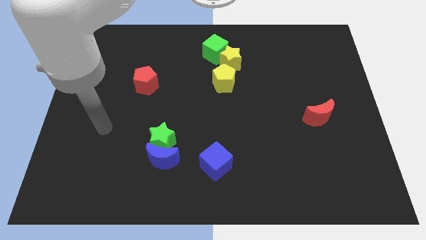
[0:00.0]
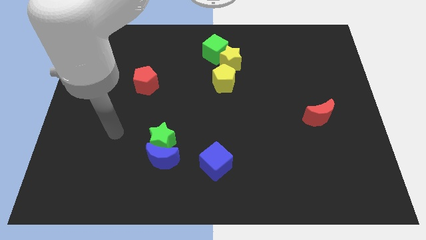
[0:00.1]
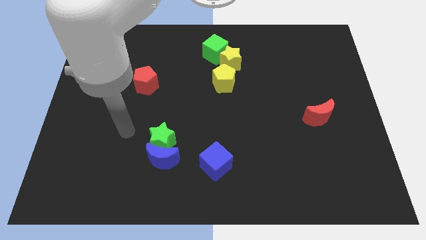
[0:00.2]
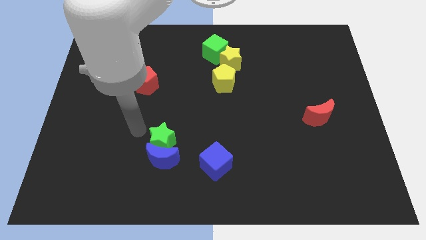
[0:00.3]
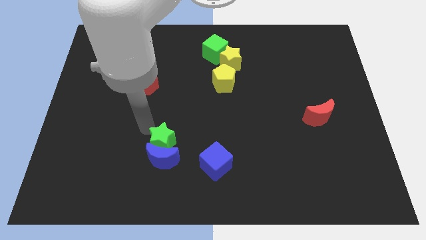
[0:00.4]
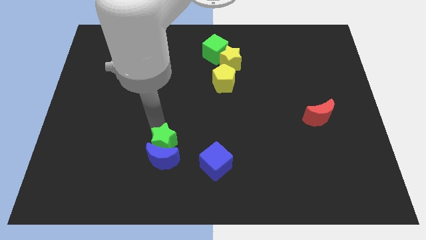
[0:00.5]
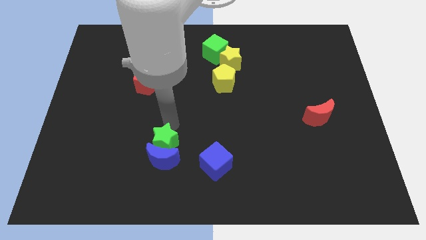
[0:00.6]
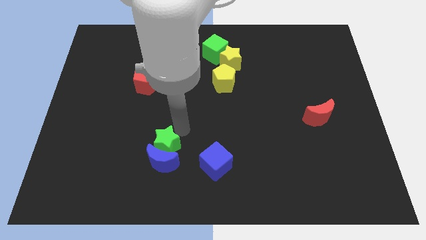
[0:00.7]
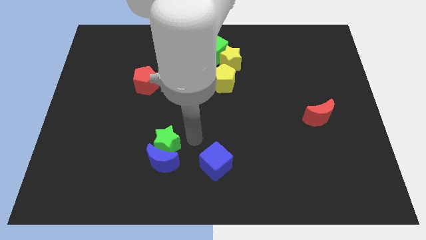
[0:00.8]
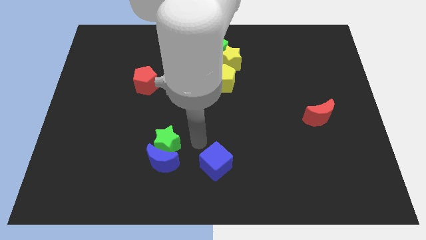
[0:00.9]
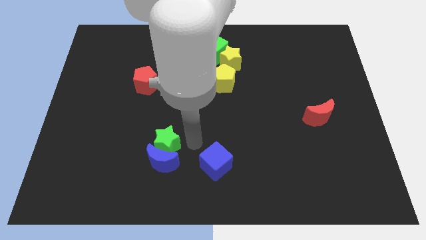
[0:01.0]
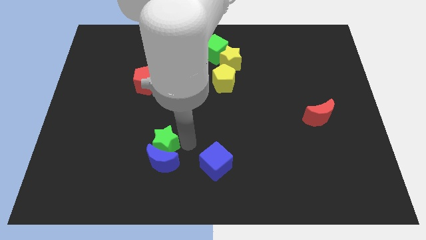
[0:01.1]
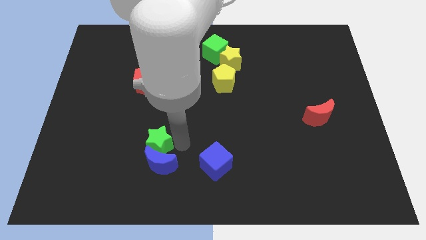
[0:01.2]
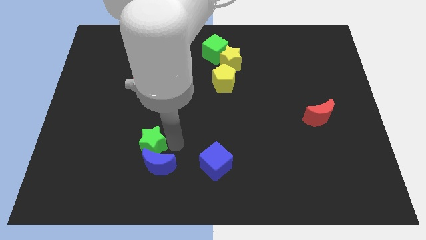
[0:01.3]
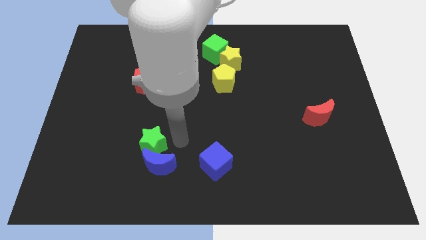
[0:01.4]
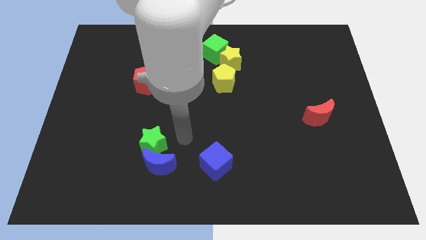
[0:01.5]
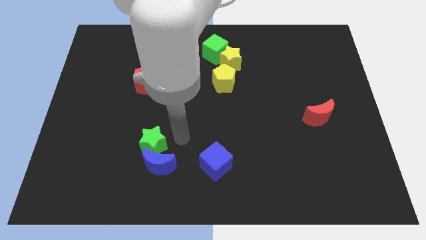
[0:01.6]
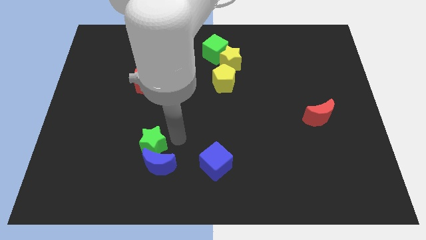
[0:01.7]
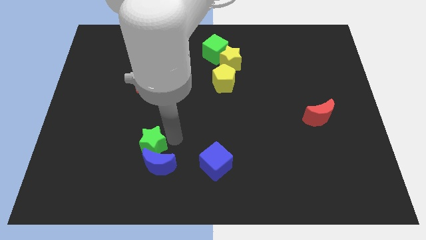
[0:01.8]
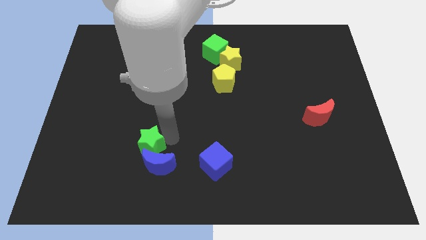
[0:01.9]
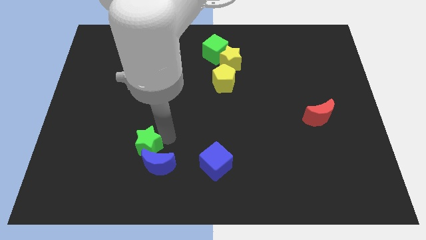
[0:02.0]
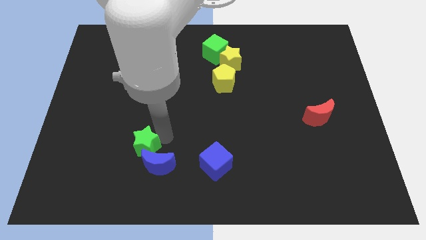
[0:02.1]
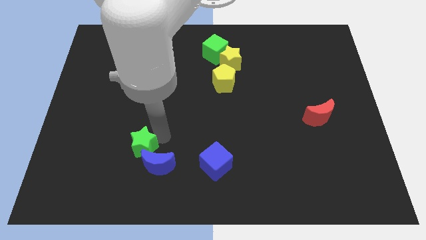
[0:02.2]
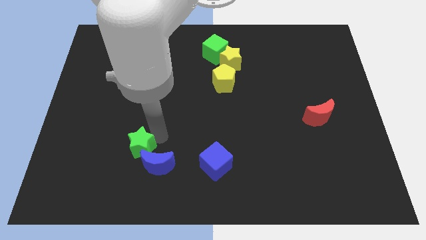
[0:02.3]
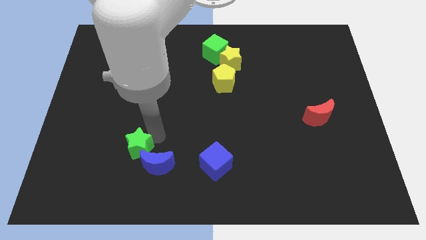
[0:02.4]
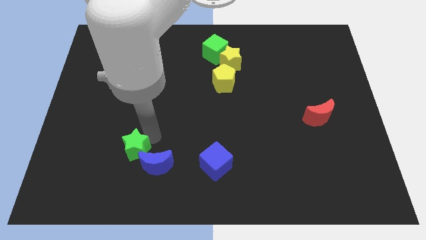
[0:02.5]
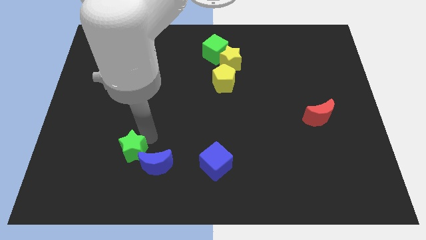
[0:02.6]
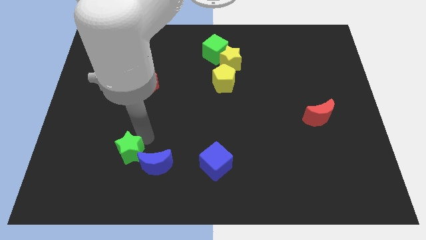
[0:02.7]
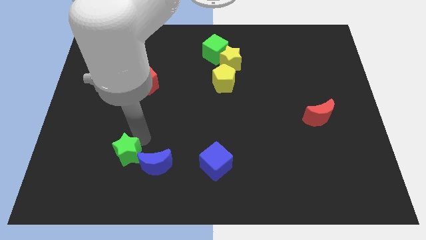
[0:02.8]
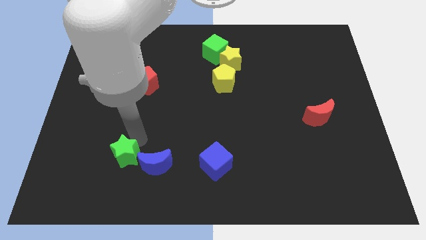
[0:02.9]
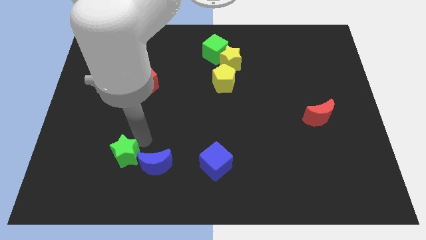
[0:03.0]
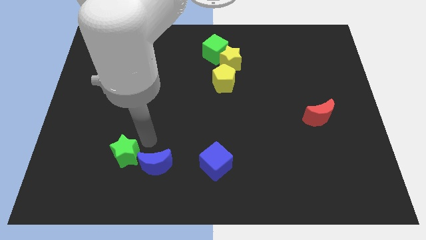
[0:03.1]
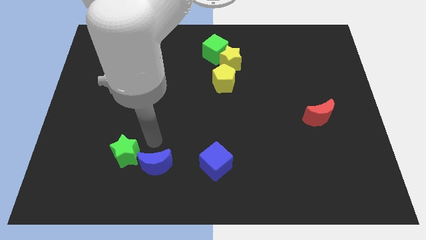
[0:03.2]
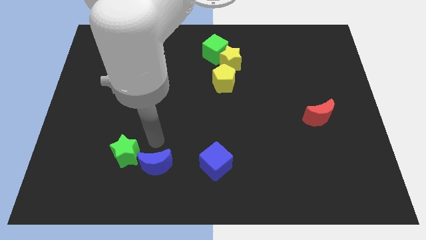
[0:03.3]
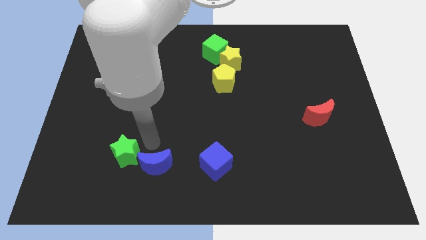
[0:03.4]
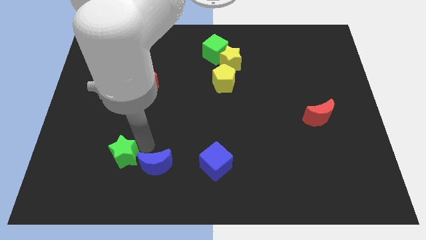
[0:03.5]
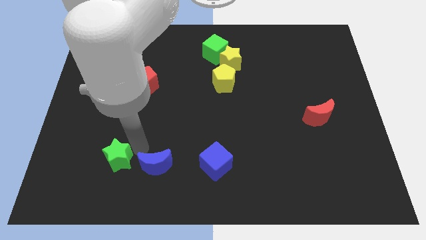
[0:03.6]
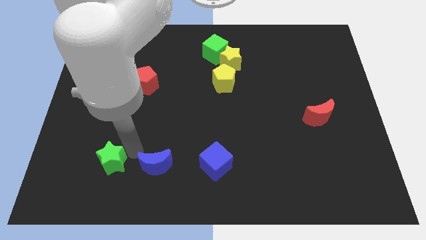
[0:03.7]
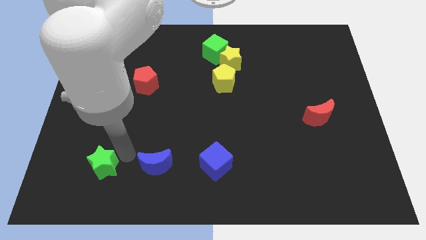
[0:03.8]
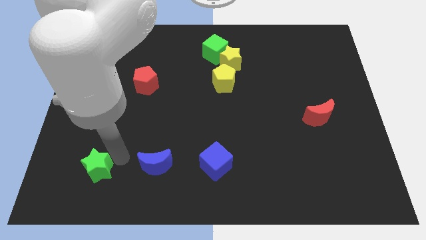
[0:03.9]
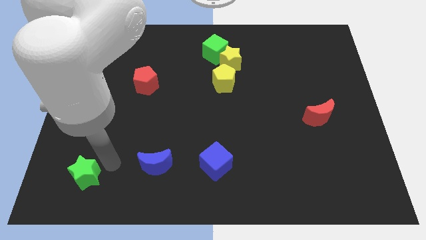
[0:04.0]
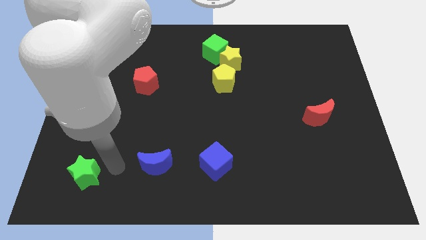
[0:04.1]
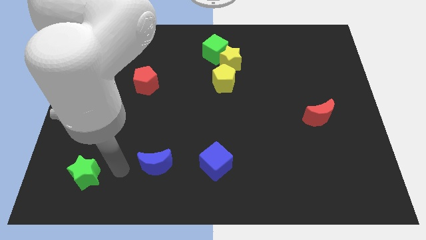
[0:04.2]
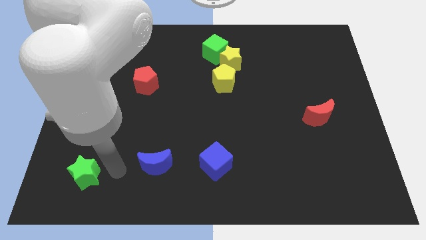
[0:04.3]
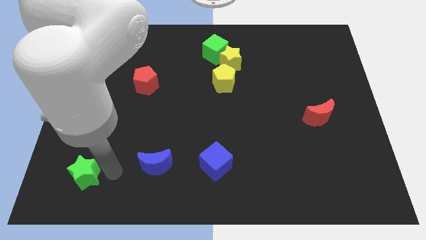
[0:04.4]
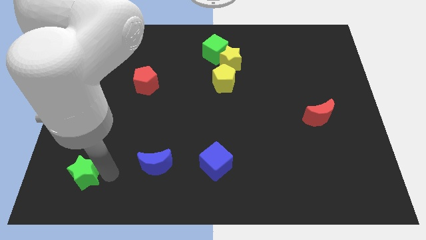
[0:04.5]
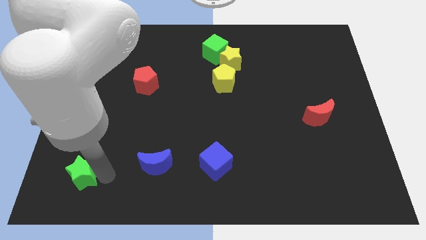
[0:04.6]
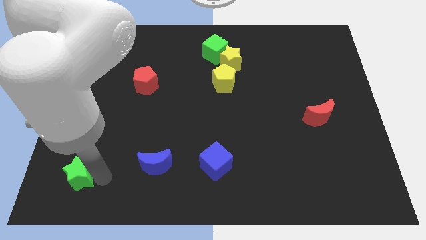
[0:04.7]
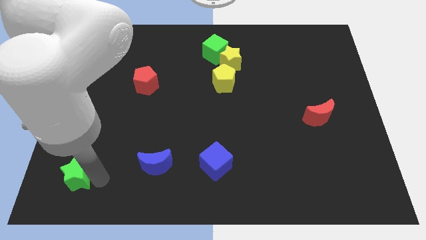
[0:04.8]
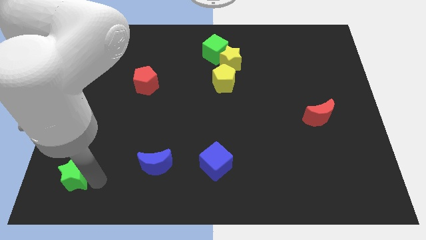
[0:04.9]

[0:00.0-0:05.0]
move the green star to the bottom left

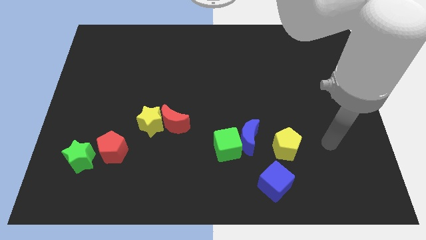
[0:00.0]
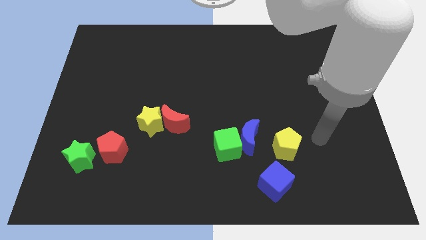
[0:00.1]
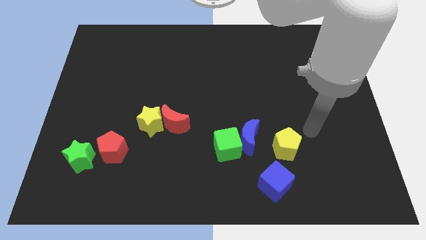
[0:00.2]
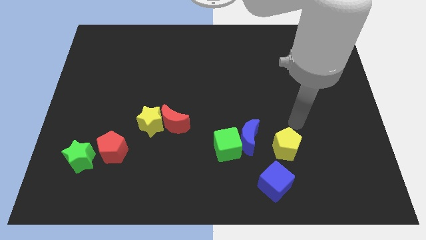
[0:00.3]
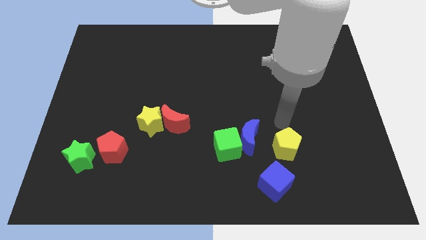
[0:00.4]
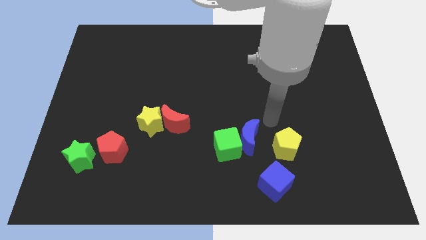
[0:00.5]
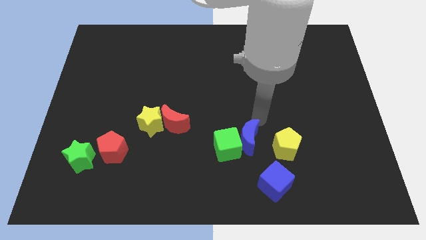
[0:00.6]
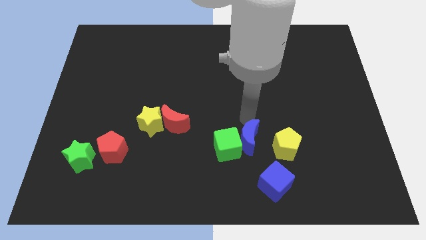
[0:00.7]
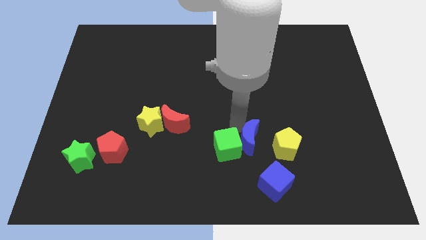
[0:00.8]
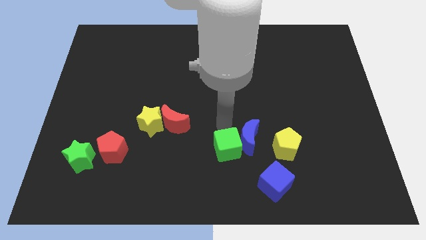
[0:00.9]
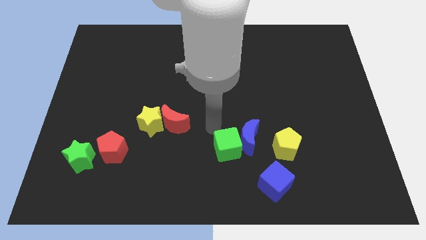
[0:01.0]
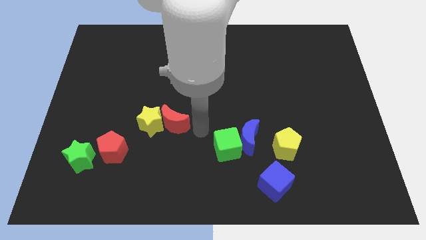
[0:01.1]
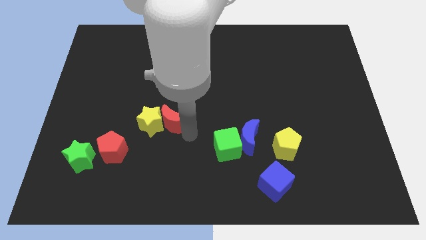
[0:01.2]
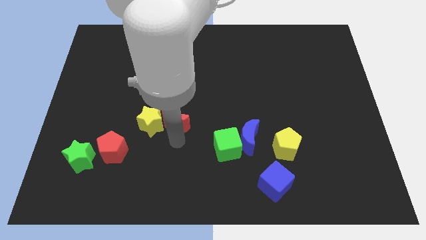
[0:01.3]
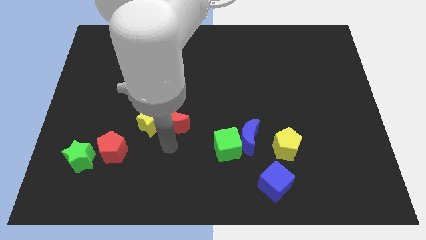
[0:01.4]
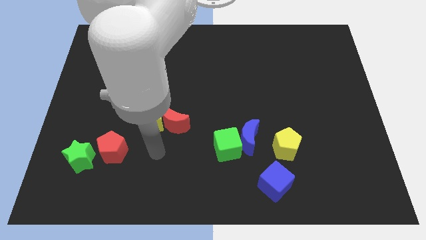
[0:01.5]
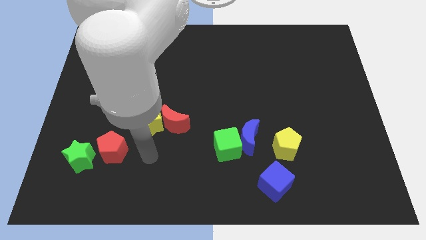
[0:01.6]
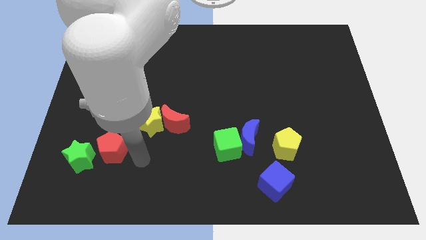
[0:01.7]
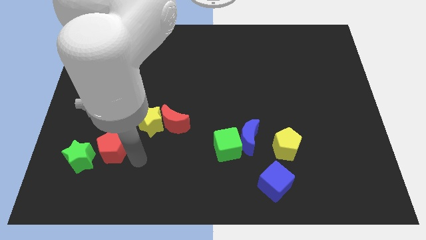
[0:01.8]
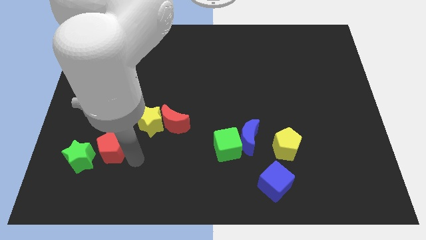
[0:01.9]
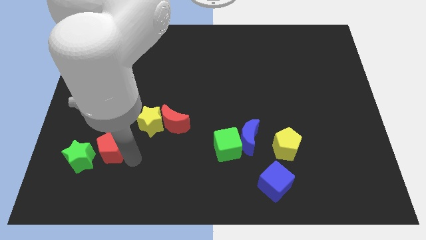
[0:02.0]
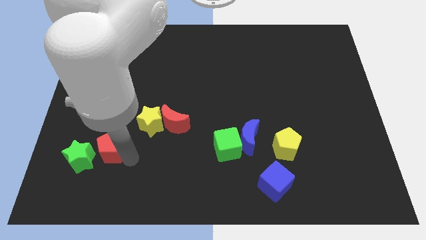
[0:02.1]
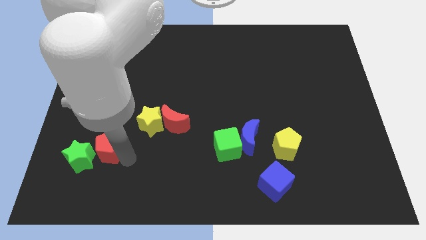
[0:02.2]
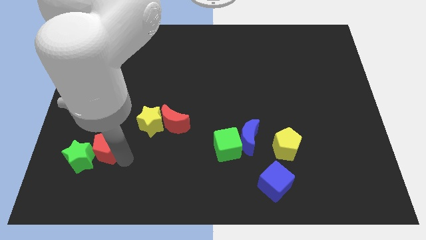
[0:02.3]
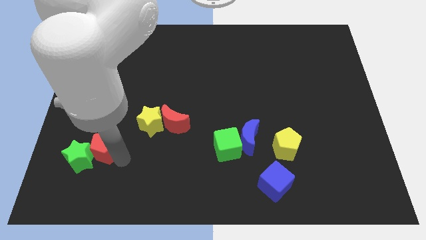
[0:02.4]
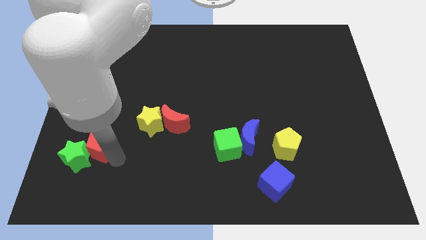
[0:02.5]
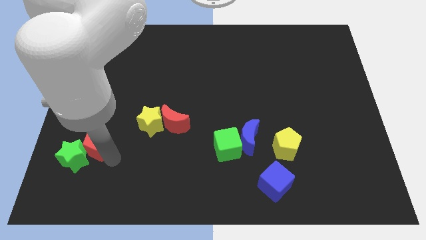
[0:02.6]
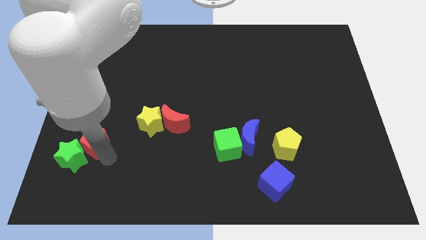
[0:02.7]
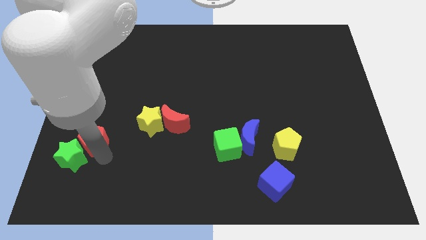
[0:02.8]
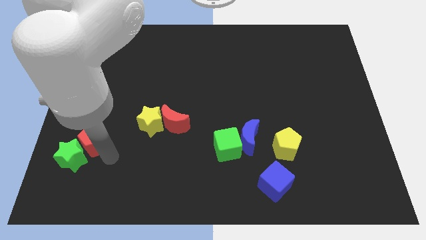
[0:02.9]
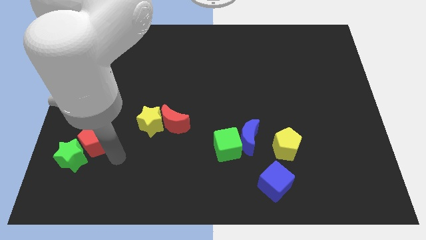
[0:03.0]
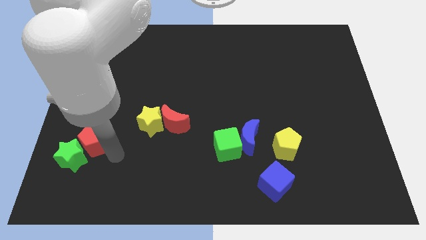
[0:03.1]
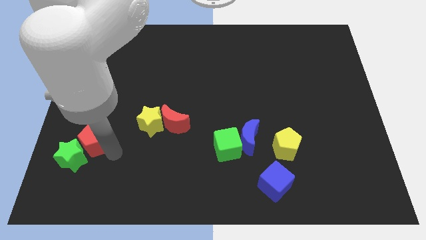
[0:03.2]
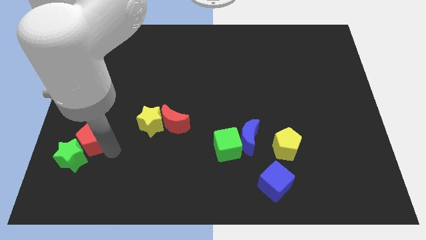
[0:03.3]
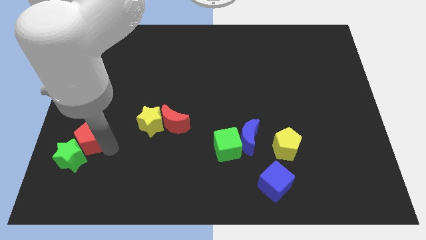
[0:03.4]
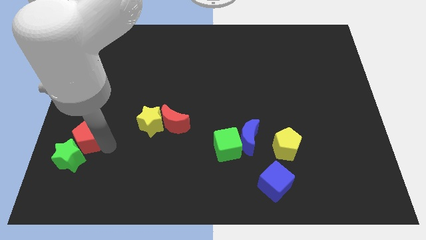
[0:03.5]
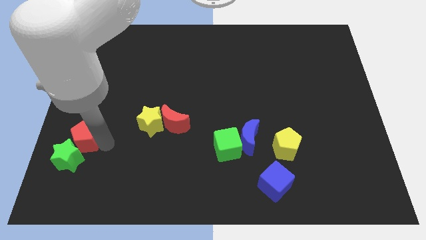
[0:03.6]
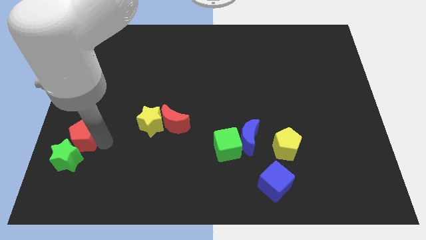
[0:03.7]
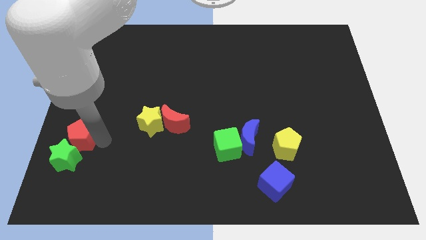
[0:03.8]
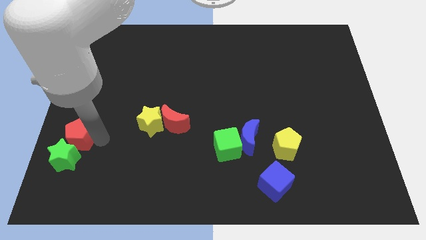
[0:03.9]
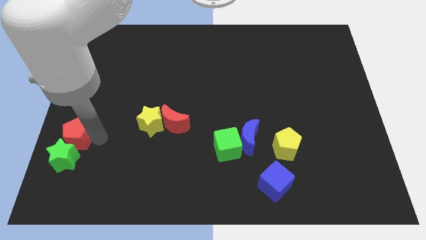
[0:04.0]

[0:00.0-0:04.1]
put the red pentagon to the left side
